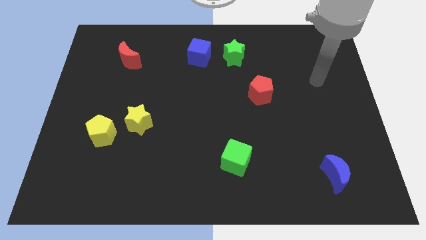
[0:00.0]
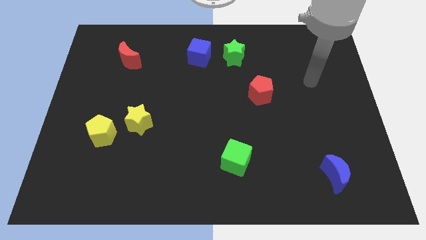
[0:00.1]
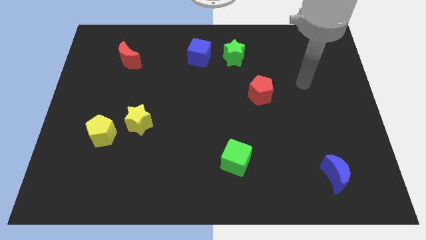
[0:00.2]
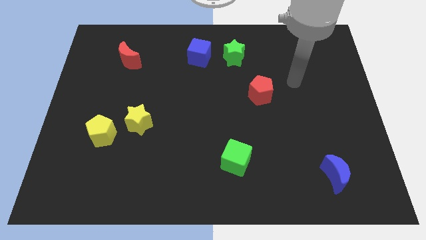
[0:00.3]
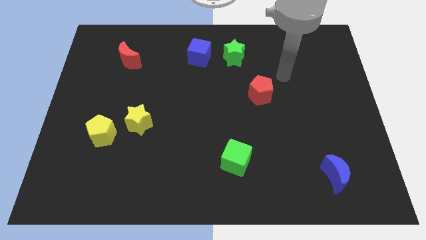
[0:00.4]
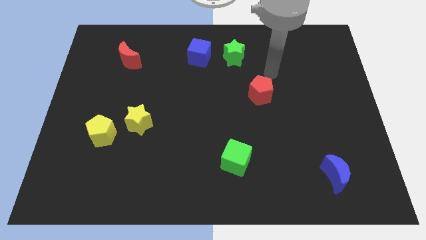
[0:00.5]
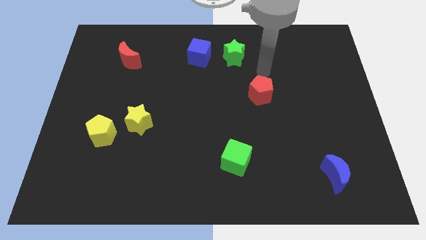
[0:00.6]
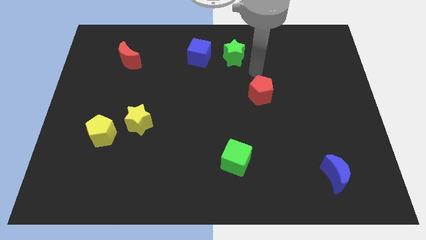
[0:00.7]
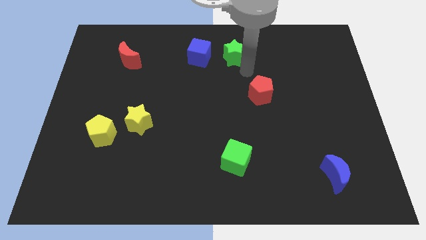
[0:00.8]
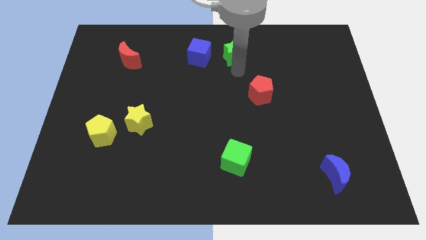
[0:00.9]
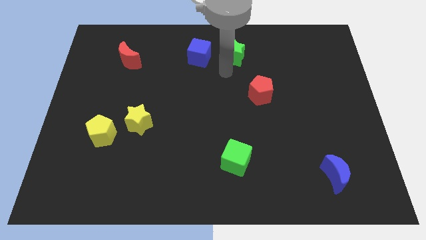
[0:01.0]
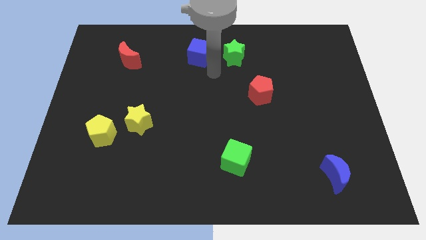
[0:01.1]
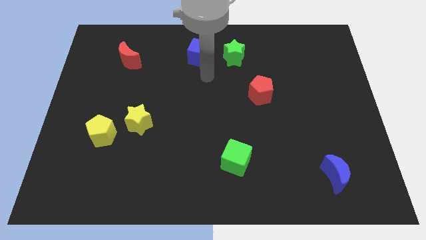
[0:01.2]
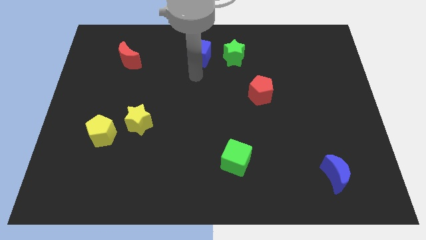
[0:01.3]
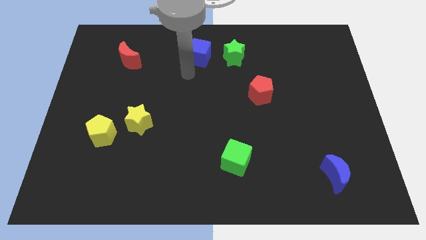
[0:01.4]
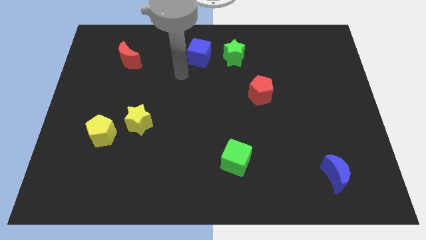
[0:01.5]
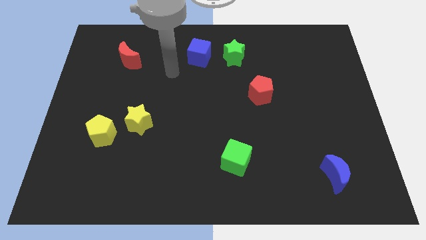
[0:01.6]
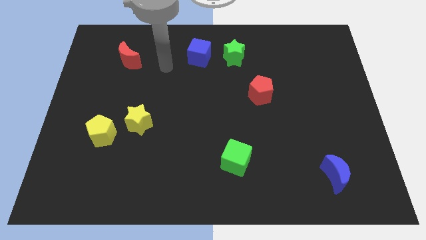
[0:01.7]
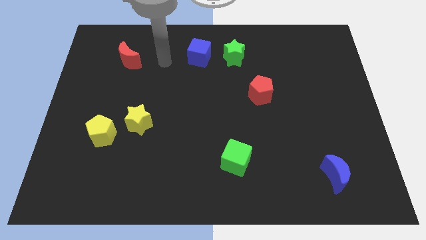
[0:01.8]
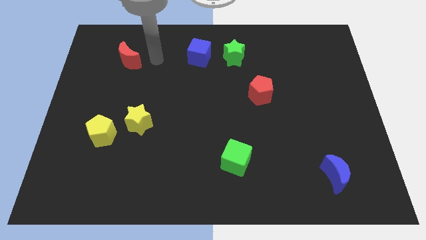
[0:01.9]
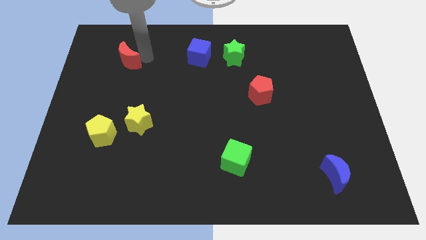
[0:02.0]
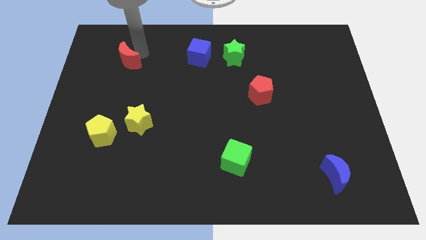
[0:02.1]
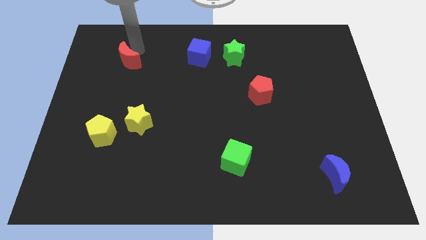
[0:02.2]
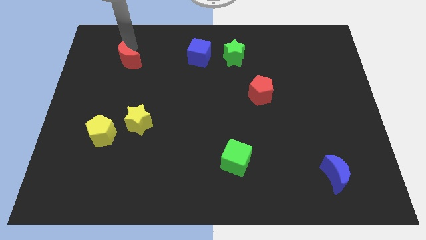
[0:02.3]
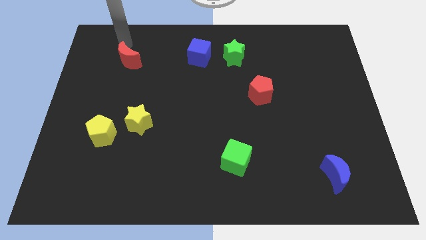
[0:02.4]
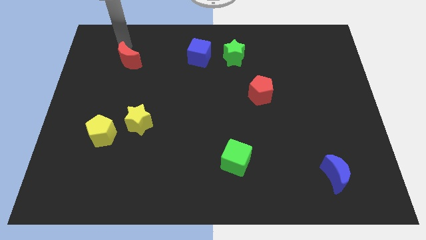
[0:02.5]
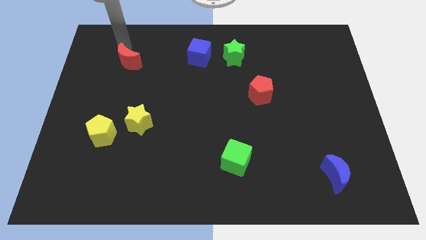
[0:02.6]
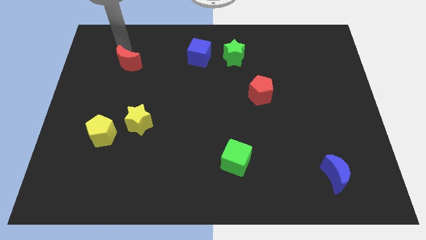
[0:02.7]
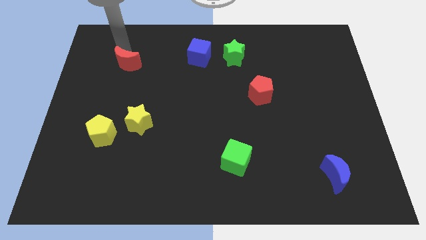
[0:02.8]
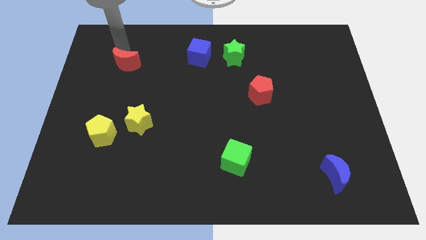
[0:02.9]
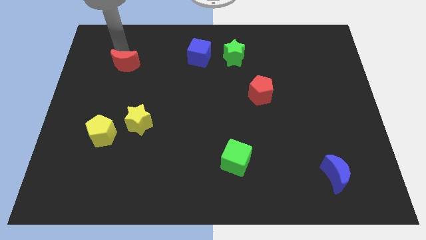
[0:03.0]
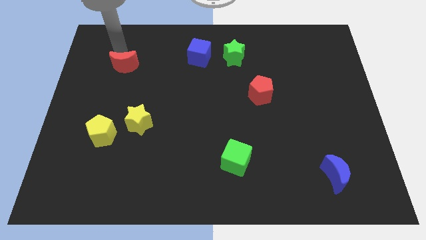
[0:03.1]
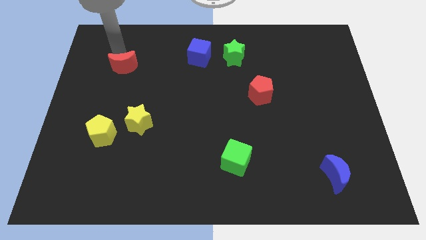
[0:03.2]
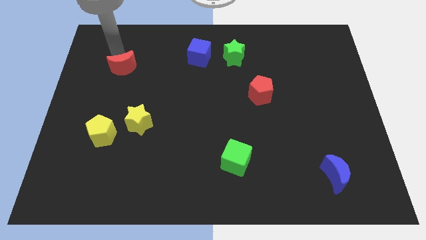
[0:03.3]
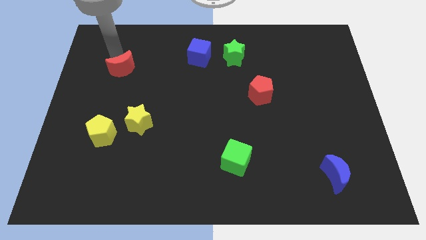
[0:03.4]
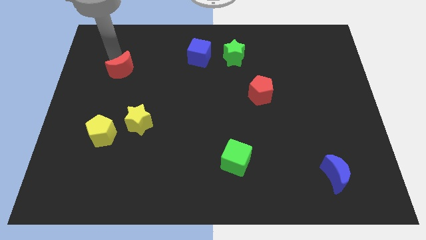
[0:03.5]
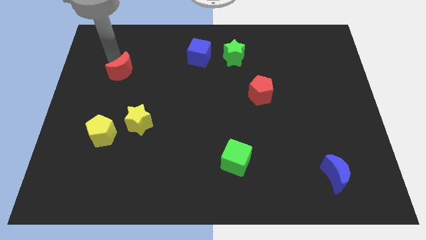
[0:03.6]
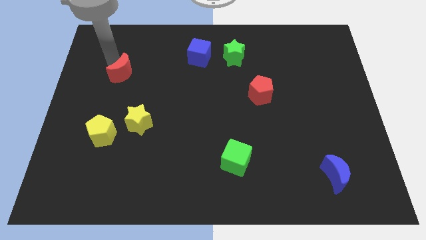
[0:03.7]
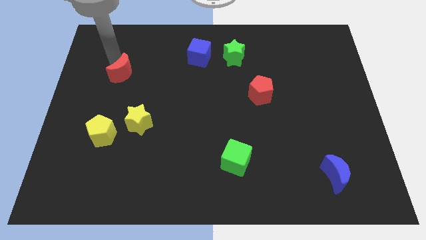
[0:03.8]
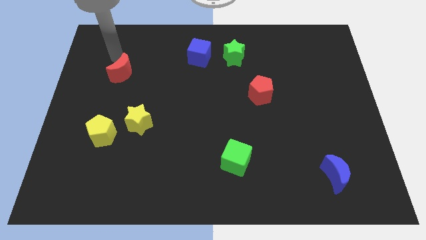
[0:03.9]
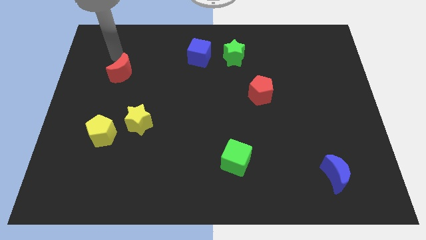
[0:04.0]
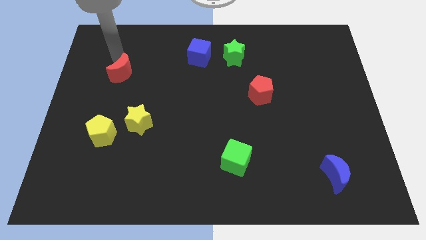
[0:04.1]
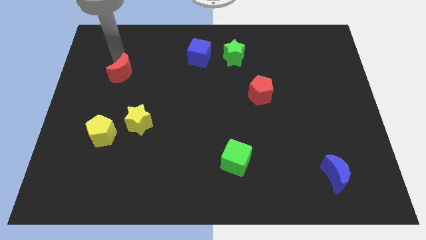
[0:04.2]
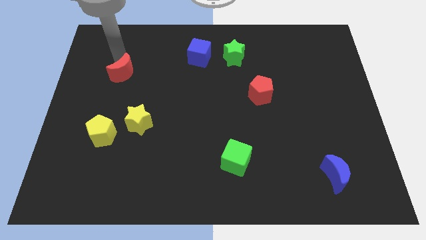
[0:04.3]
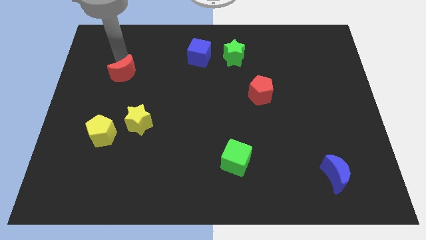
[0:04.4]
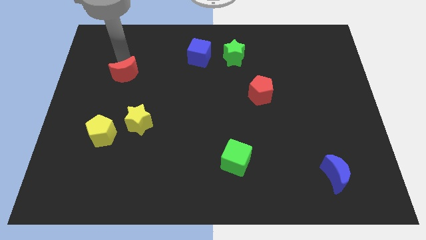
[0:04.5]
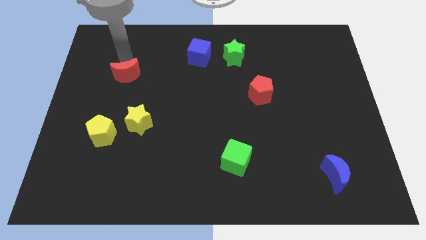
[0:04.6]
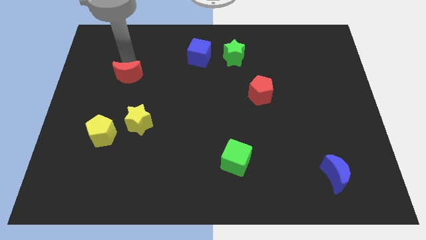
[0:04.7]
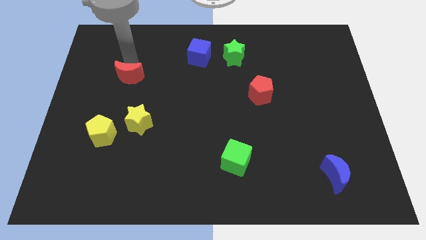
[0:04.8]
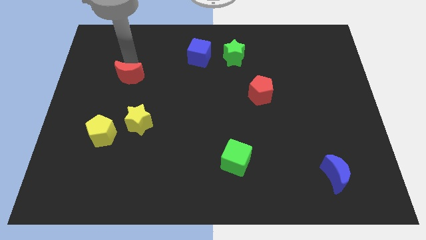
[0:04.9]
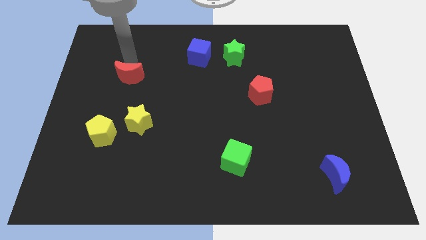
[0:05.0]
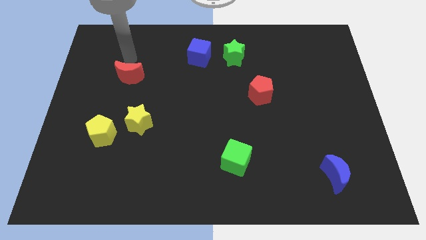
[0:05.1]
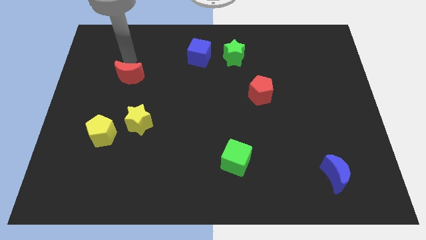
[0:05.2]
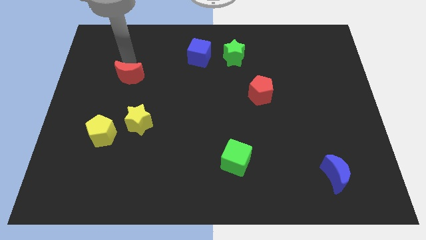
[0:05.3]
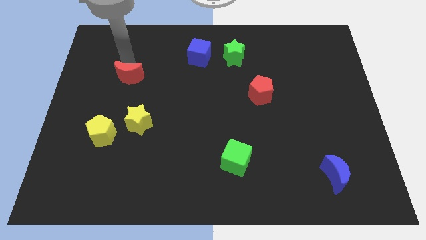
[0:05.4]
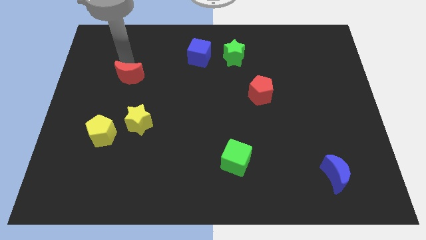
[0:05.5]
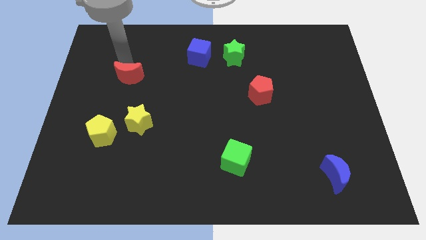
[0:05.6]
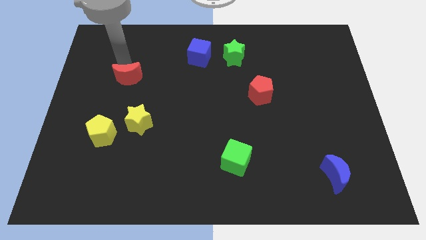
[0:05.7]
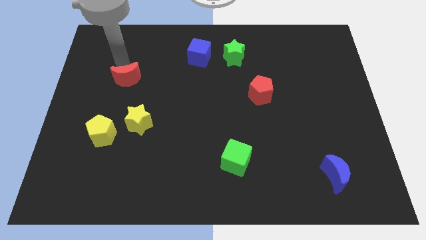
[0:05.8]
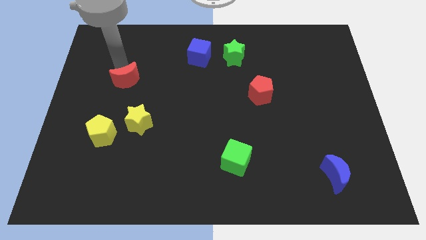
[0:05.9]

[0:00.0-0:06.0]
slightly move the red moon downwards

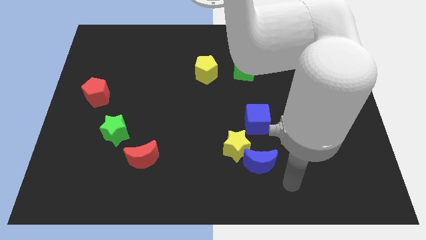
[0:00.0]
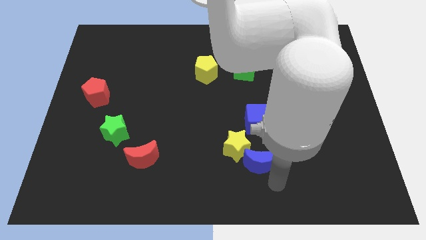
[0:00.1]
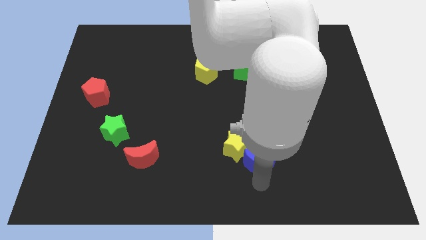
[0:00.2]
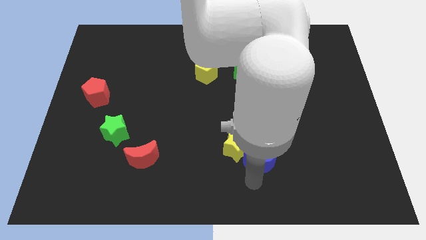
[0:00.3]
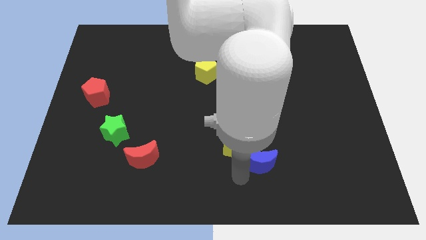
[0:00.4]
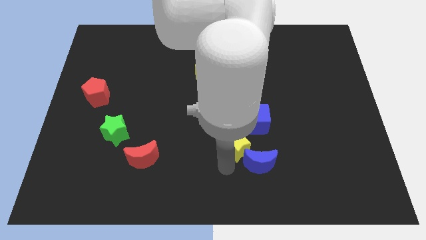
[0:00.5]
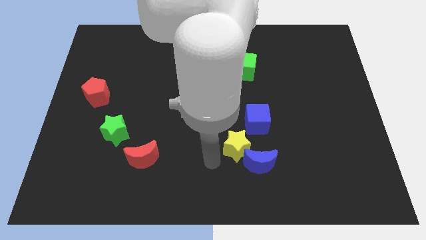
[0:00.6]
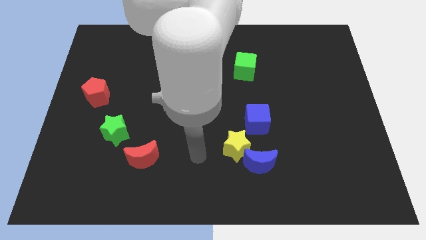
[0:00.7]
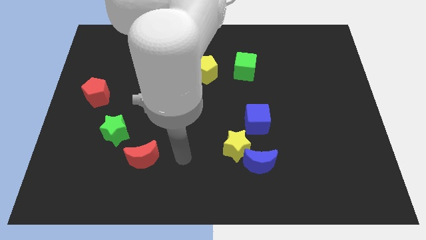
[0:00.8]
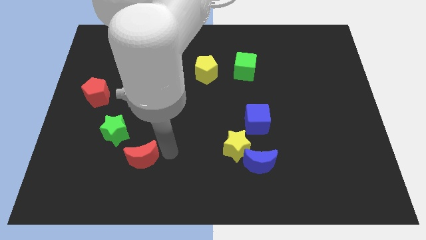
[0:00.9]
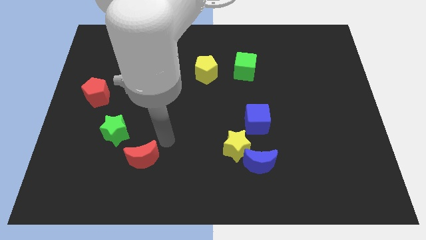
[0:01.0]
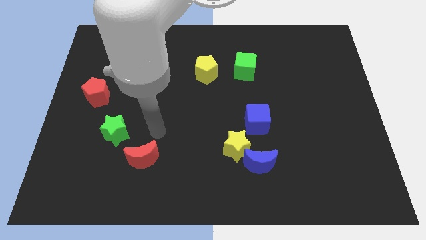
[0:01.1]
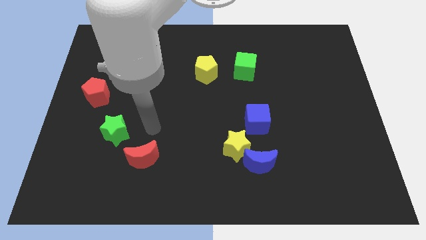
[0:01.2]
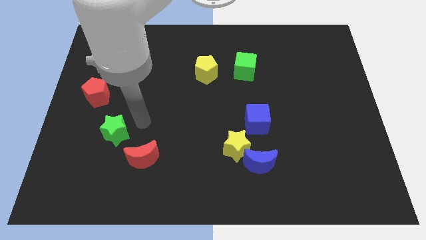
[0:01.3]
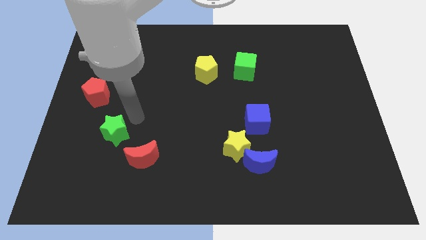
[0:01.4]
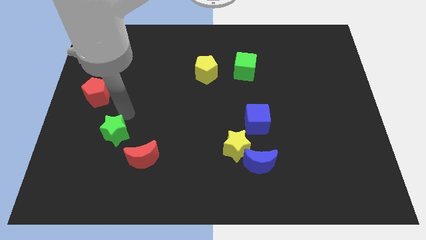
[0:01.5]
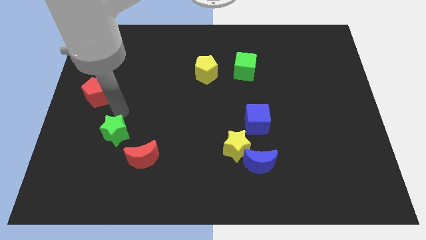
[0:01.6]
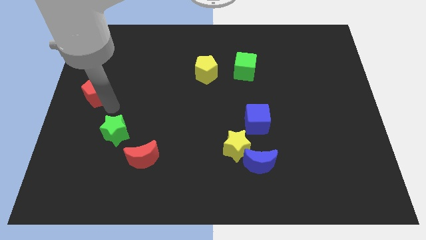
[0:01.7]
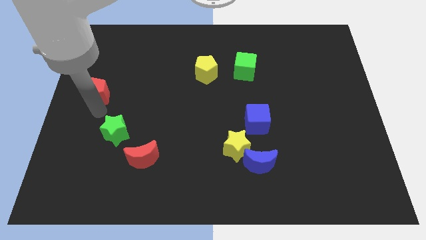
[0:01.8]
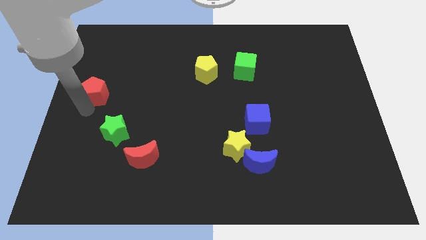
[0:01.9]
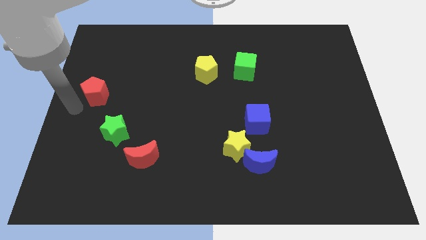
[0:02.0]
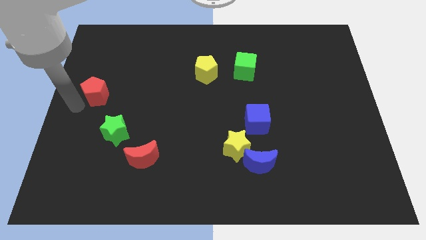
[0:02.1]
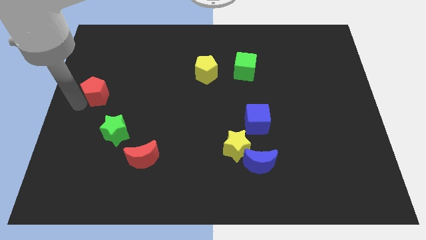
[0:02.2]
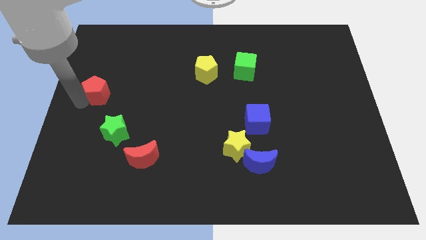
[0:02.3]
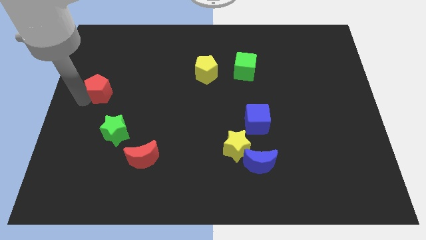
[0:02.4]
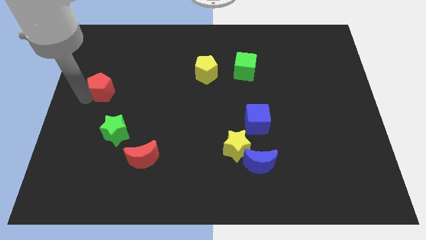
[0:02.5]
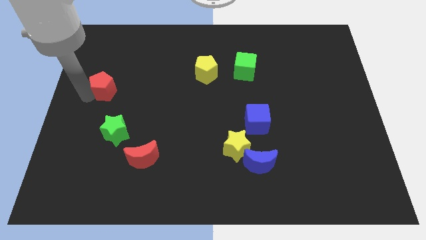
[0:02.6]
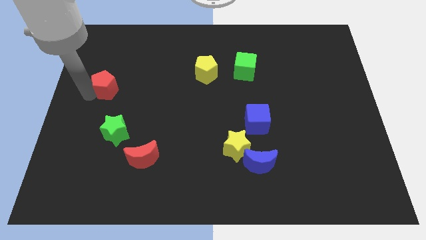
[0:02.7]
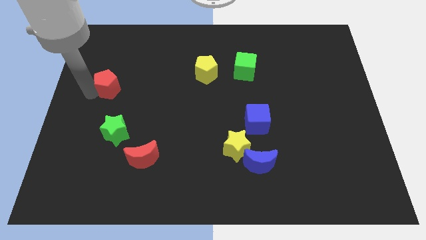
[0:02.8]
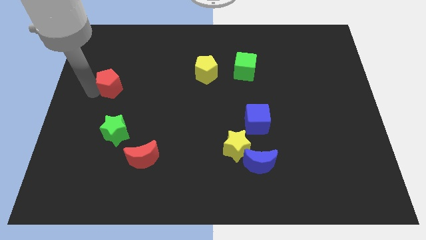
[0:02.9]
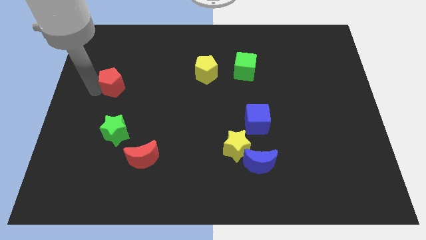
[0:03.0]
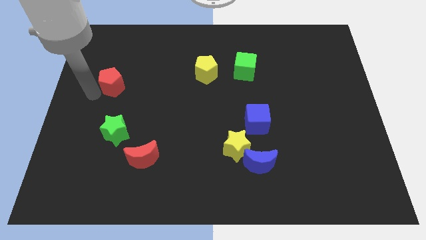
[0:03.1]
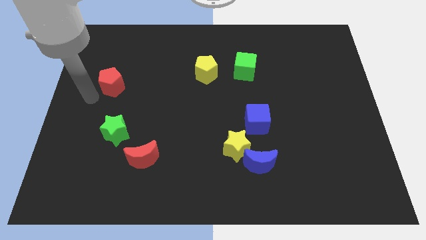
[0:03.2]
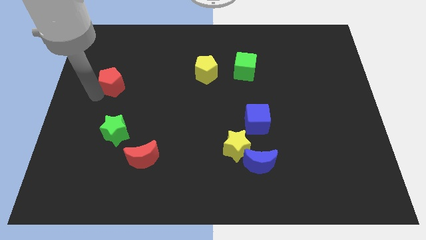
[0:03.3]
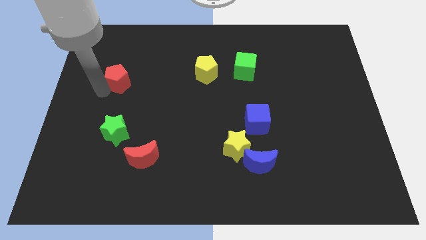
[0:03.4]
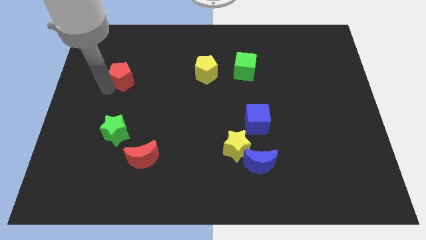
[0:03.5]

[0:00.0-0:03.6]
slide the red pentagon somewhat upwards and to the right
